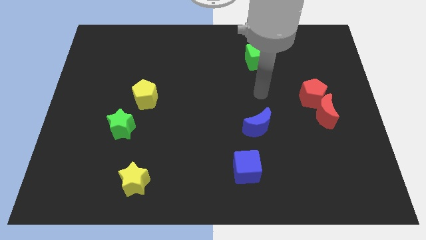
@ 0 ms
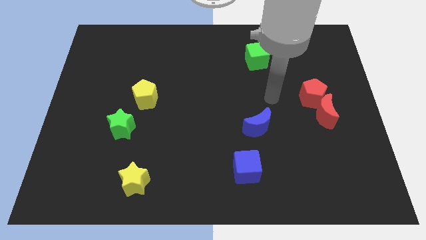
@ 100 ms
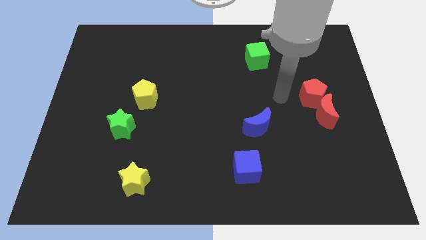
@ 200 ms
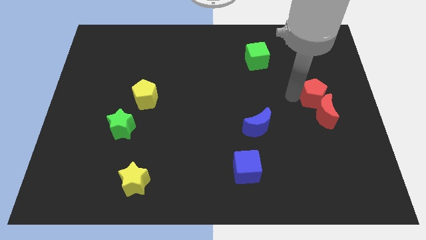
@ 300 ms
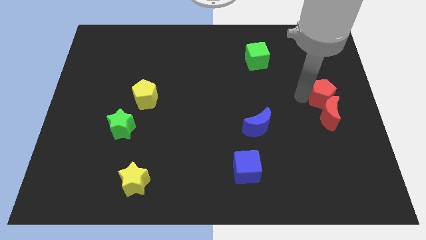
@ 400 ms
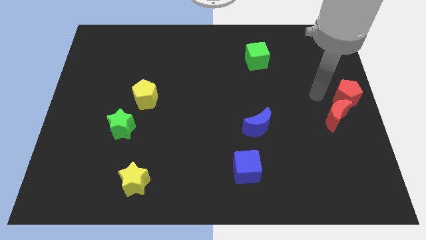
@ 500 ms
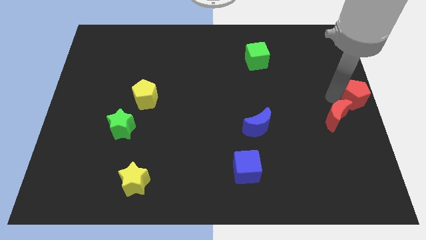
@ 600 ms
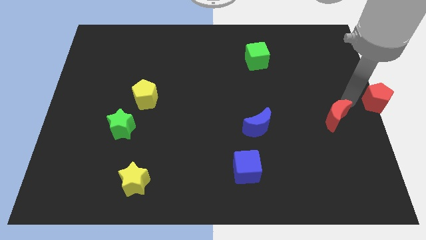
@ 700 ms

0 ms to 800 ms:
separate the red moon from the red pentagon

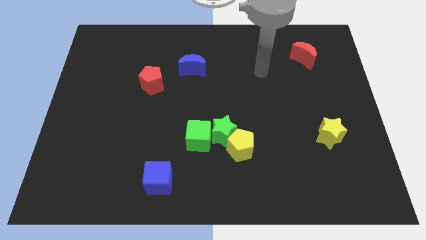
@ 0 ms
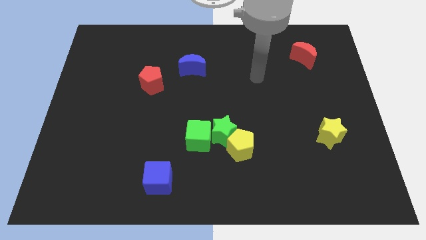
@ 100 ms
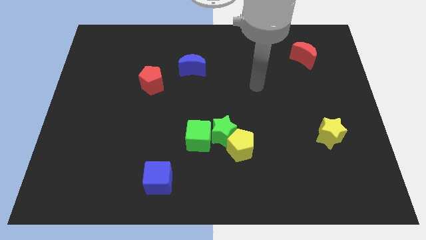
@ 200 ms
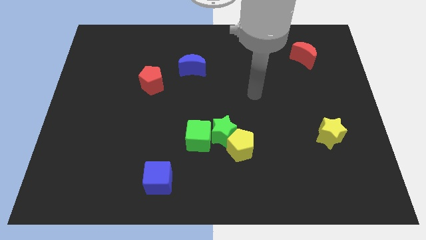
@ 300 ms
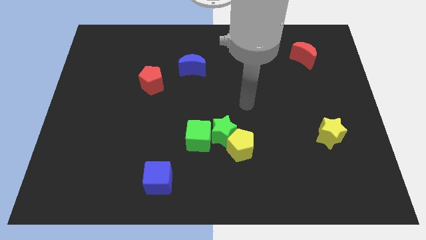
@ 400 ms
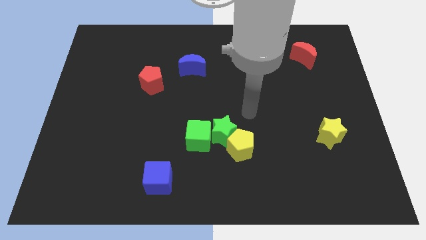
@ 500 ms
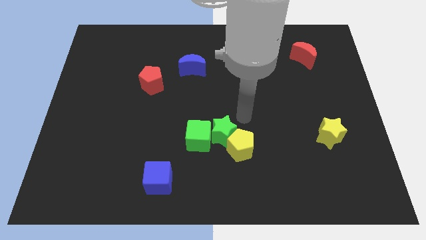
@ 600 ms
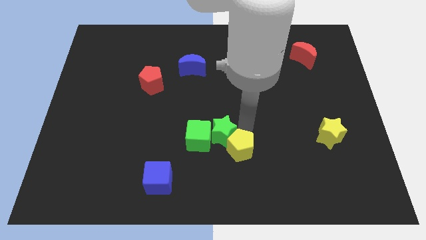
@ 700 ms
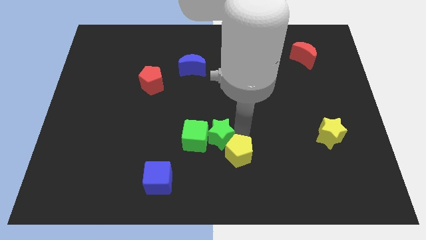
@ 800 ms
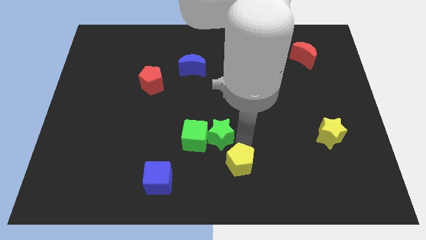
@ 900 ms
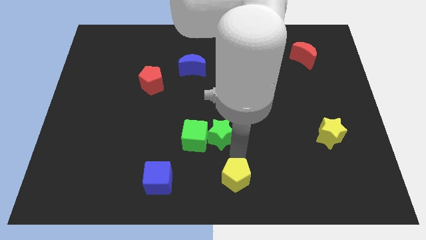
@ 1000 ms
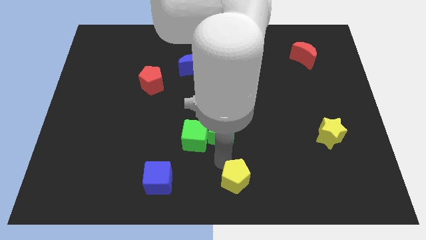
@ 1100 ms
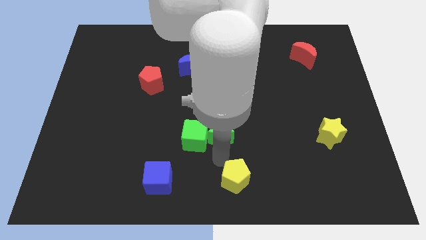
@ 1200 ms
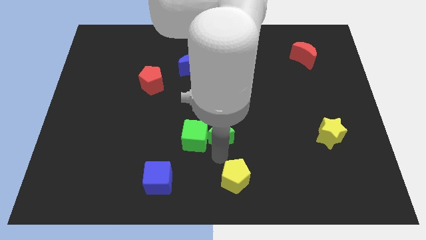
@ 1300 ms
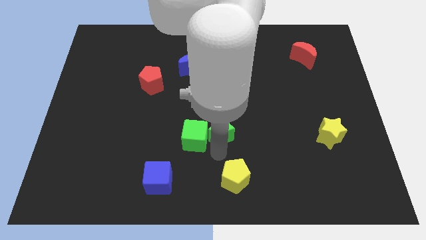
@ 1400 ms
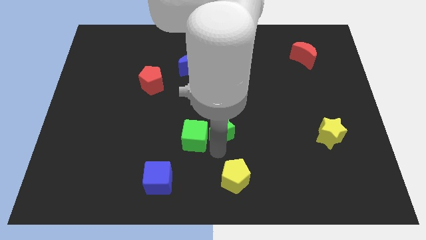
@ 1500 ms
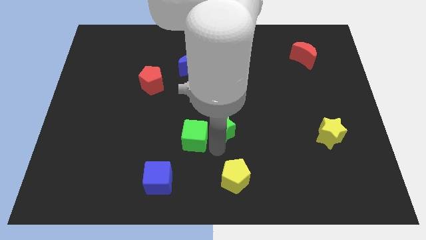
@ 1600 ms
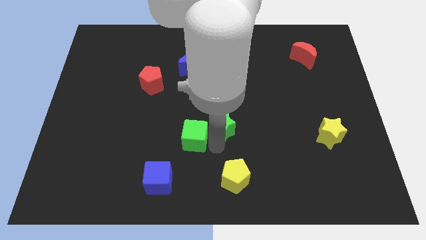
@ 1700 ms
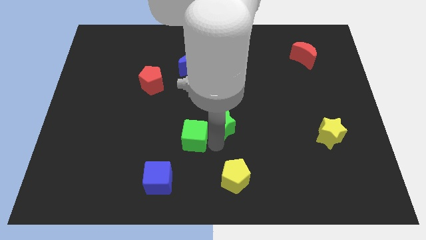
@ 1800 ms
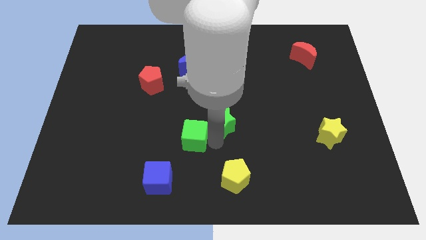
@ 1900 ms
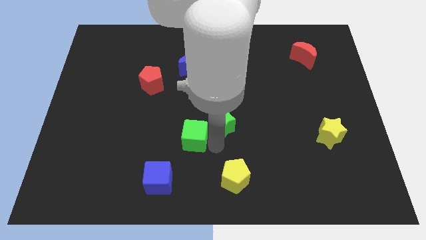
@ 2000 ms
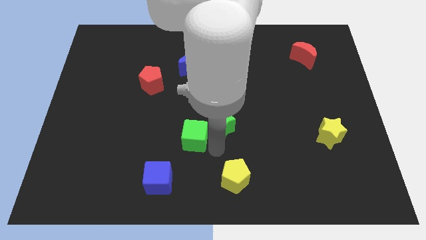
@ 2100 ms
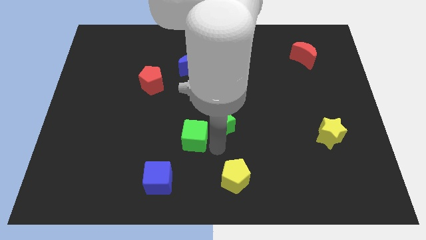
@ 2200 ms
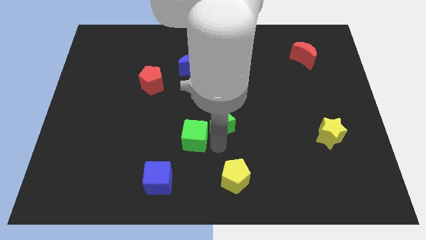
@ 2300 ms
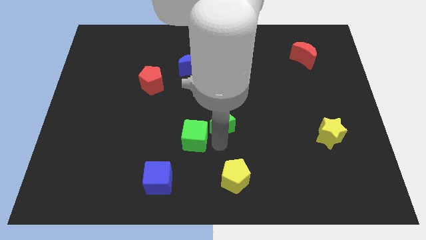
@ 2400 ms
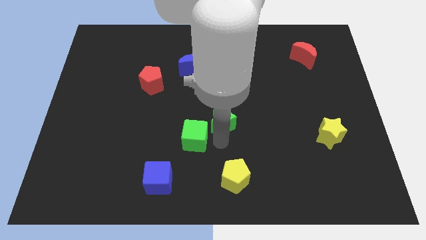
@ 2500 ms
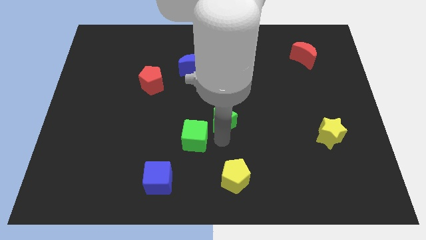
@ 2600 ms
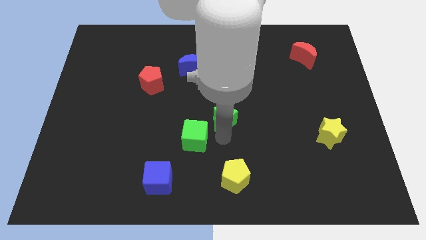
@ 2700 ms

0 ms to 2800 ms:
separate the green star from the green cube and yellow pentagon

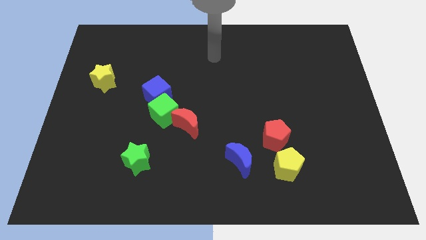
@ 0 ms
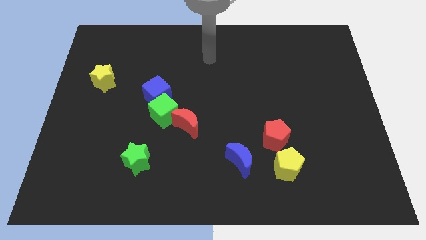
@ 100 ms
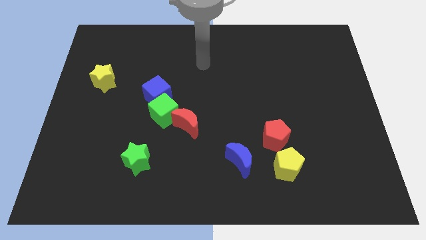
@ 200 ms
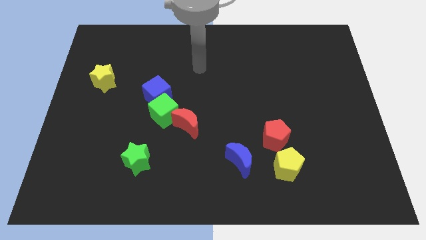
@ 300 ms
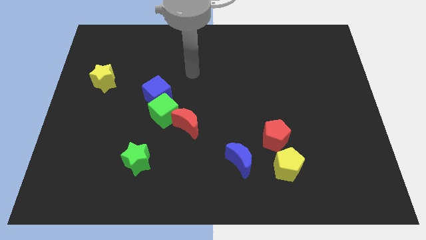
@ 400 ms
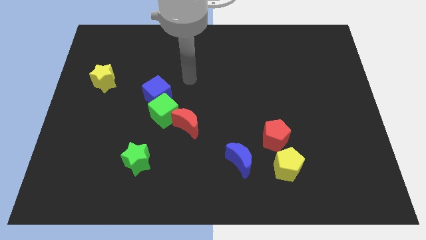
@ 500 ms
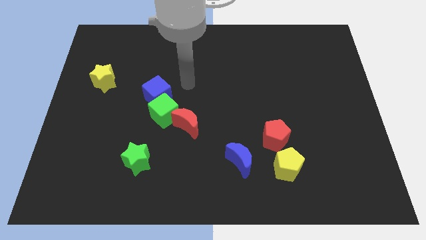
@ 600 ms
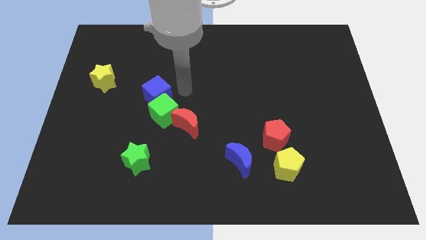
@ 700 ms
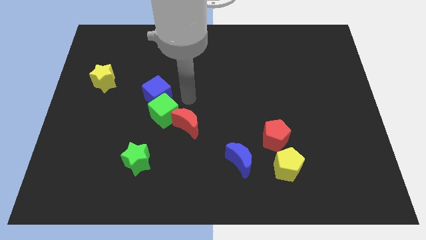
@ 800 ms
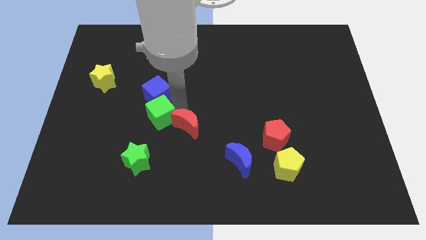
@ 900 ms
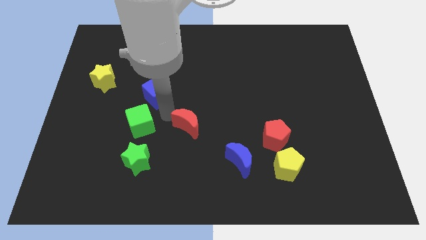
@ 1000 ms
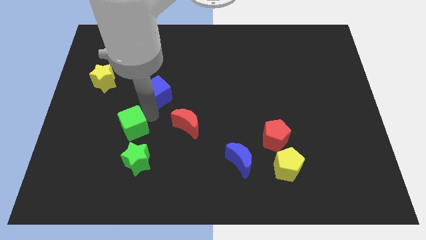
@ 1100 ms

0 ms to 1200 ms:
pull the blue cube apart from the green cube

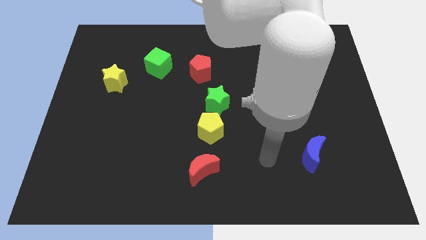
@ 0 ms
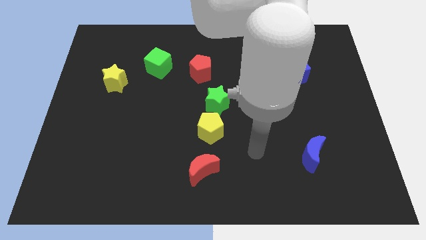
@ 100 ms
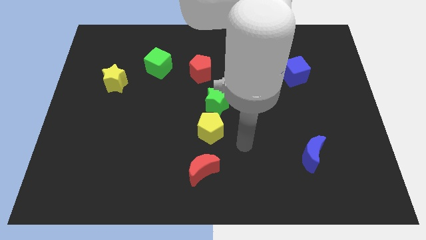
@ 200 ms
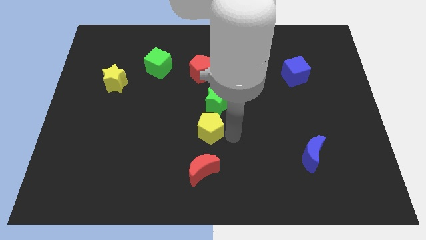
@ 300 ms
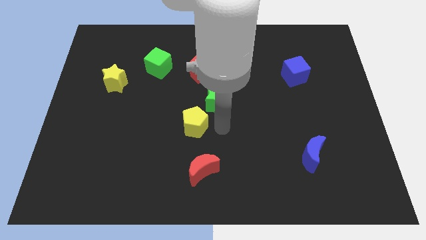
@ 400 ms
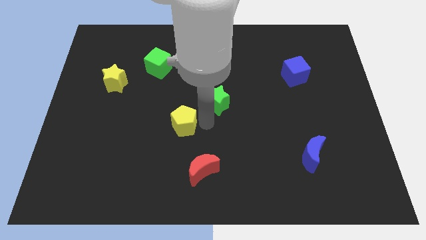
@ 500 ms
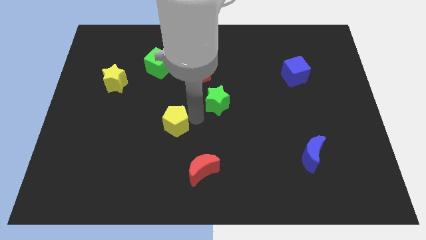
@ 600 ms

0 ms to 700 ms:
move the green star away from the yellow pentagon

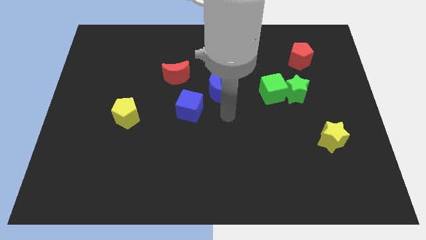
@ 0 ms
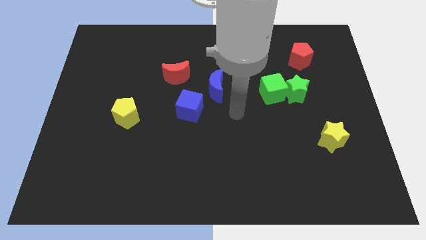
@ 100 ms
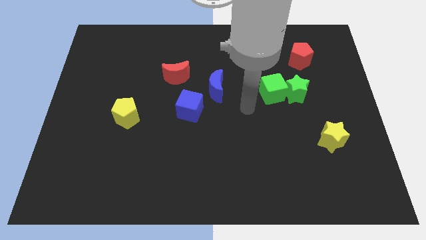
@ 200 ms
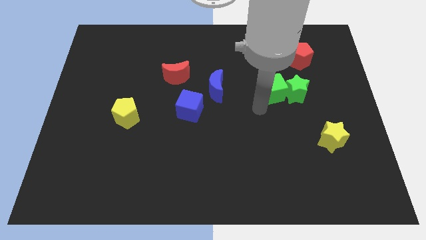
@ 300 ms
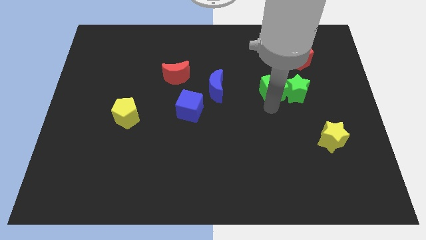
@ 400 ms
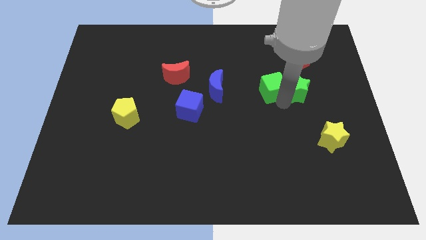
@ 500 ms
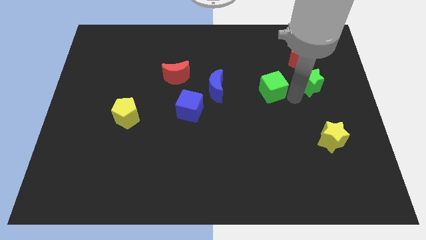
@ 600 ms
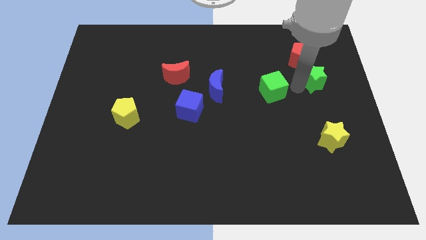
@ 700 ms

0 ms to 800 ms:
pull the green cube apart from the green star

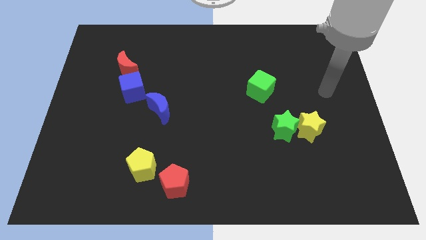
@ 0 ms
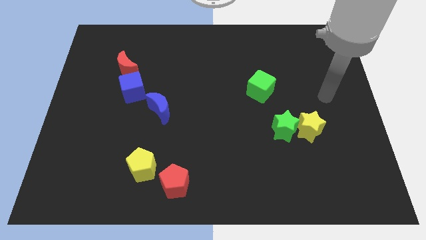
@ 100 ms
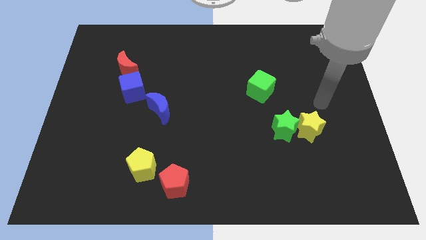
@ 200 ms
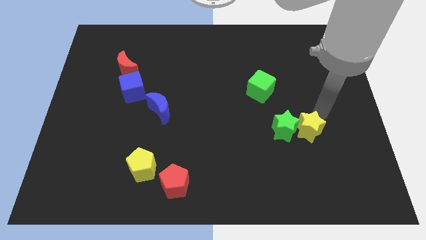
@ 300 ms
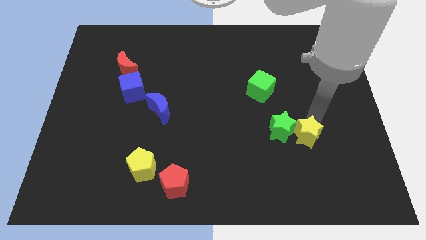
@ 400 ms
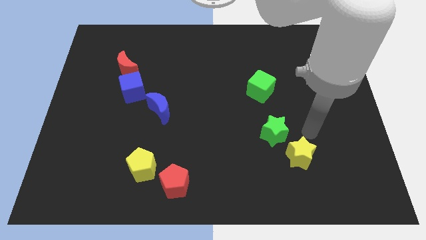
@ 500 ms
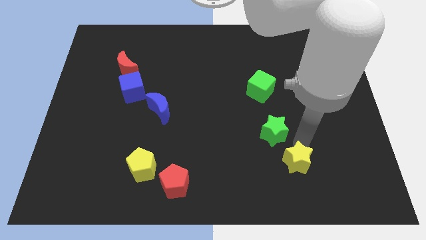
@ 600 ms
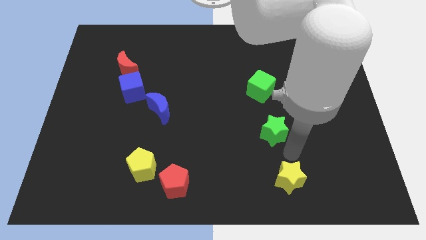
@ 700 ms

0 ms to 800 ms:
pull the green star apart from the yellow star

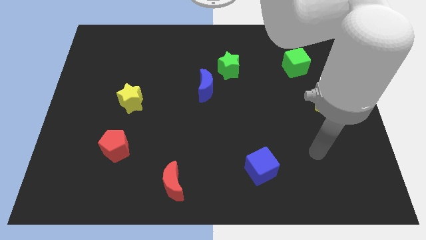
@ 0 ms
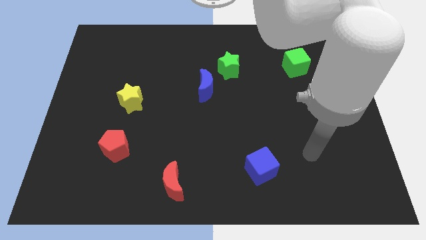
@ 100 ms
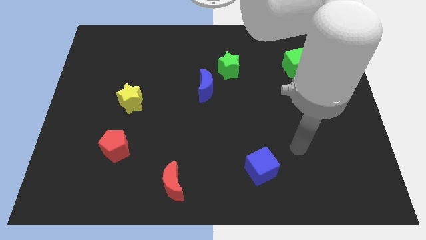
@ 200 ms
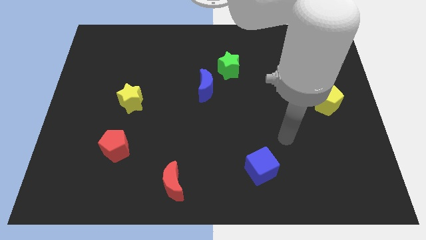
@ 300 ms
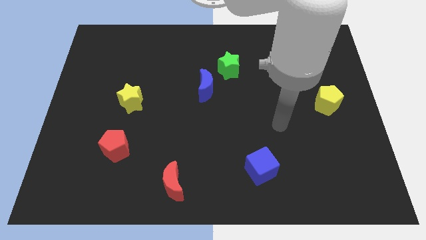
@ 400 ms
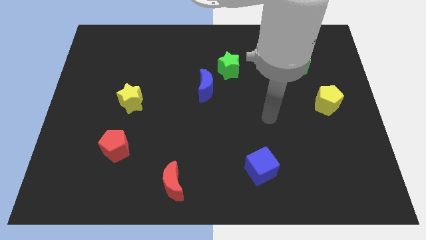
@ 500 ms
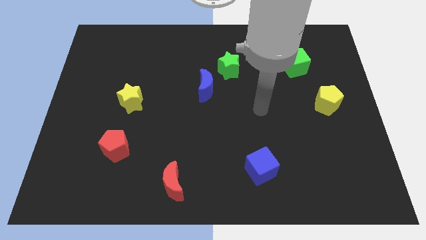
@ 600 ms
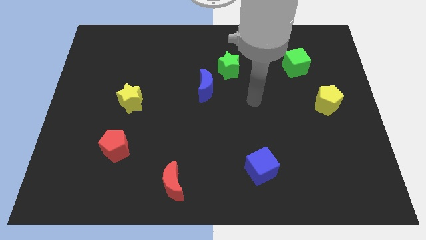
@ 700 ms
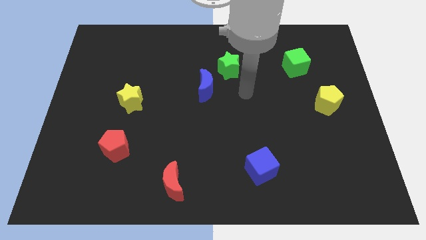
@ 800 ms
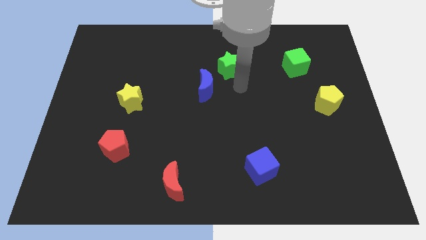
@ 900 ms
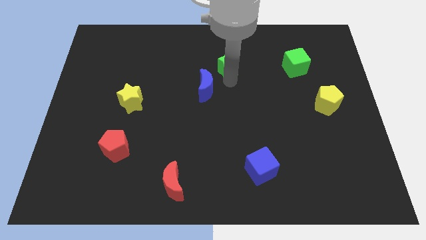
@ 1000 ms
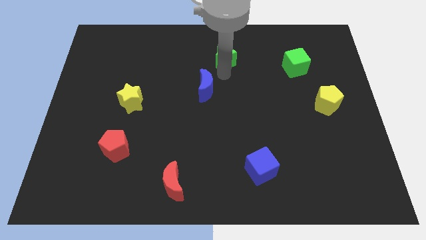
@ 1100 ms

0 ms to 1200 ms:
pull the blue moon apart from the green star

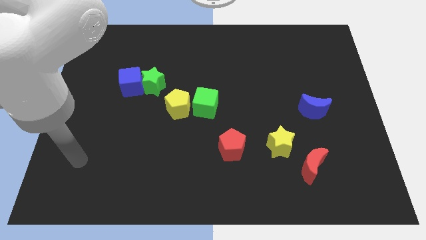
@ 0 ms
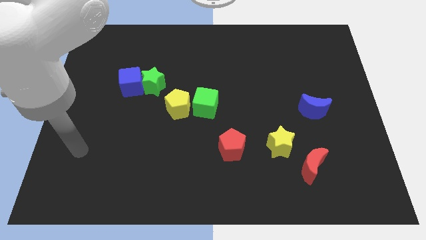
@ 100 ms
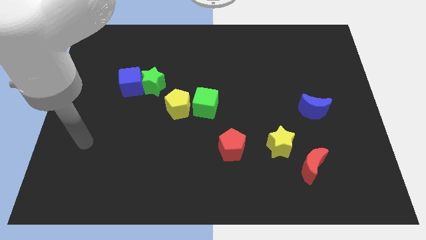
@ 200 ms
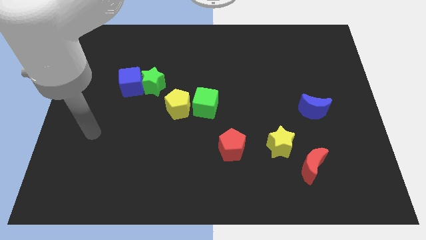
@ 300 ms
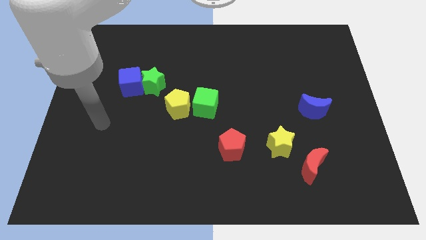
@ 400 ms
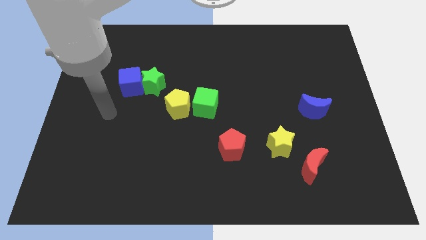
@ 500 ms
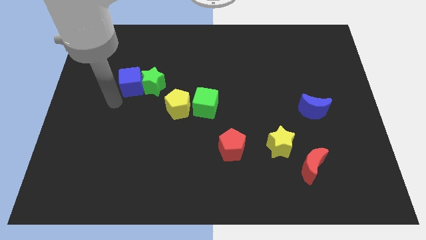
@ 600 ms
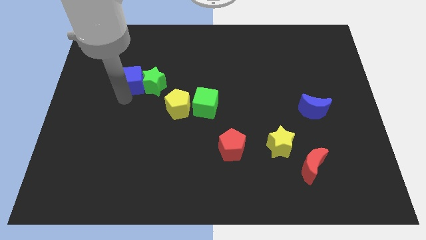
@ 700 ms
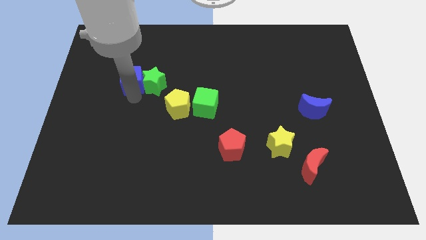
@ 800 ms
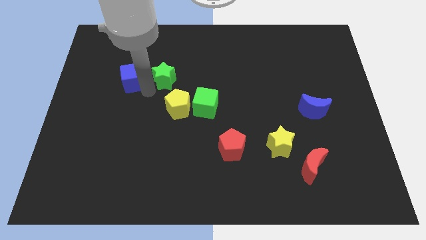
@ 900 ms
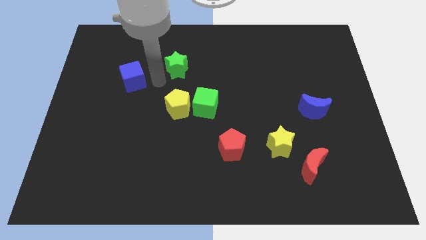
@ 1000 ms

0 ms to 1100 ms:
move the blue cube away from the green star
